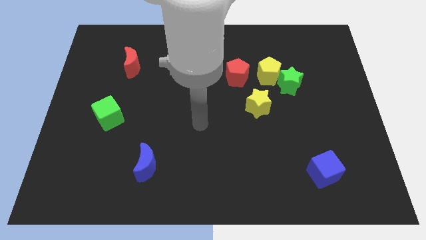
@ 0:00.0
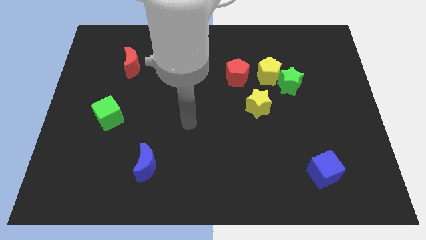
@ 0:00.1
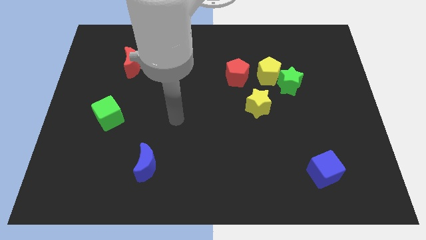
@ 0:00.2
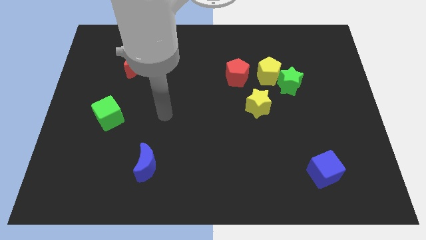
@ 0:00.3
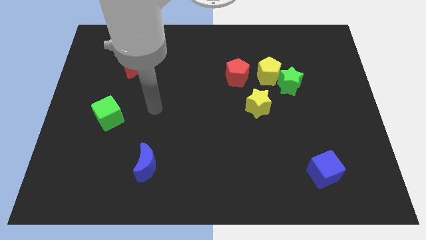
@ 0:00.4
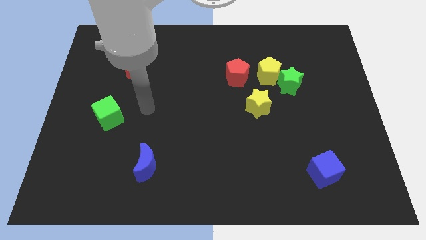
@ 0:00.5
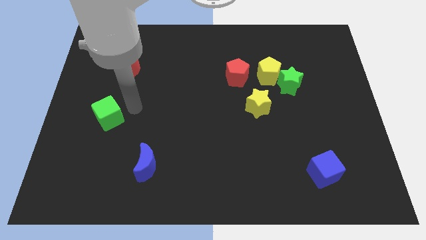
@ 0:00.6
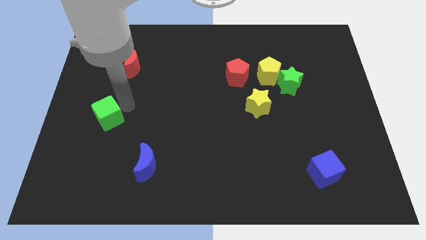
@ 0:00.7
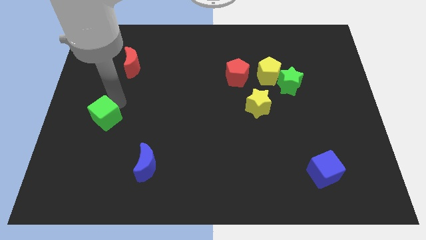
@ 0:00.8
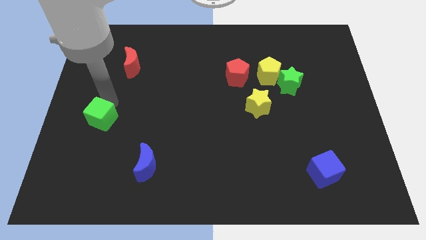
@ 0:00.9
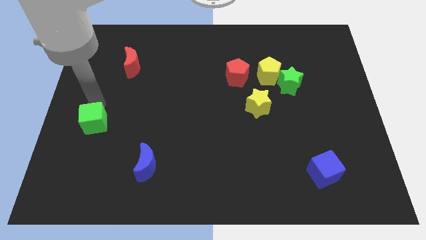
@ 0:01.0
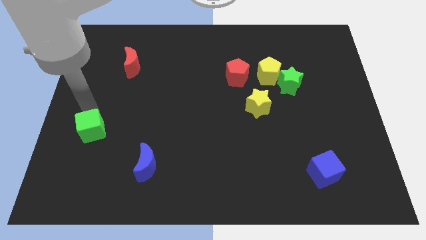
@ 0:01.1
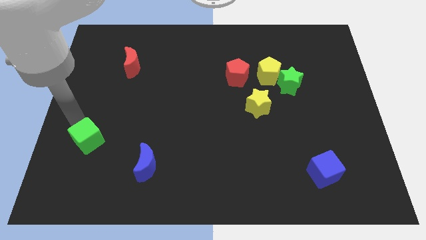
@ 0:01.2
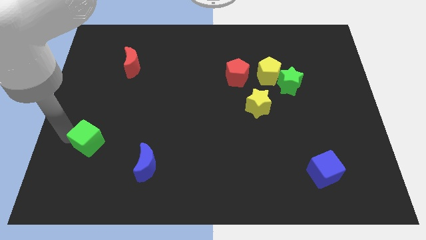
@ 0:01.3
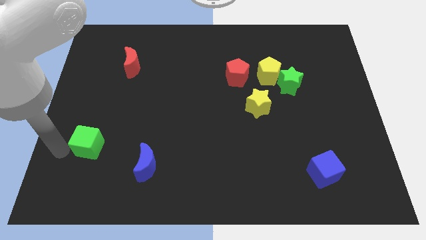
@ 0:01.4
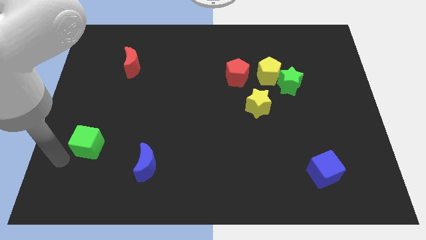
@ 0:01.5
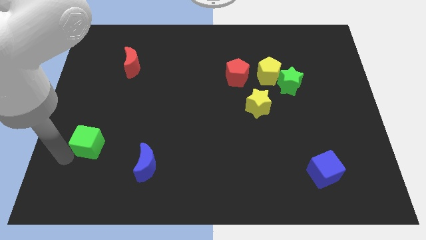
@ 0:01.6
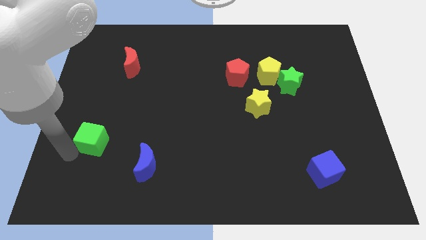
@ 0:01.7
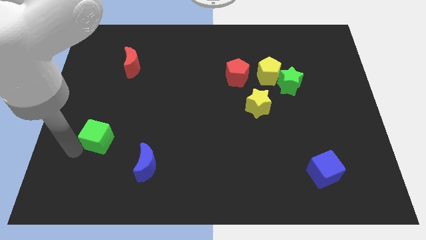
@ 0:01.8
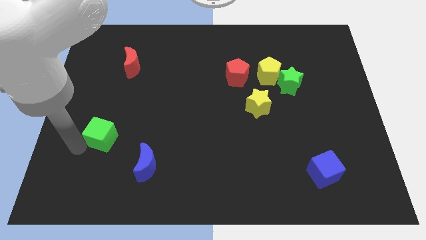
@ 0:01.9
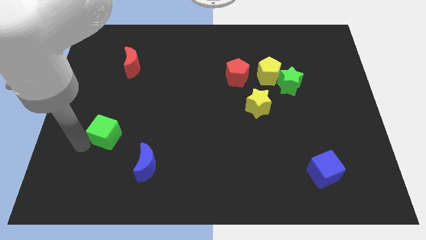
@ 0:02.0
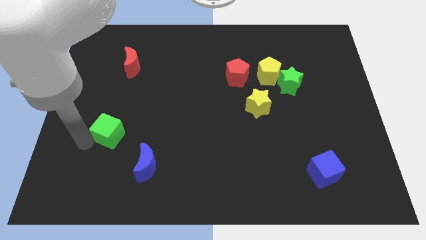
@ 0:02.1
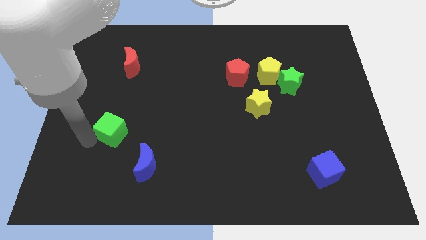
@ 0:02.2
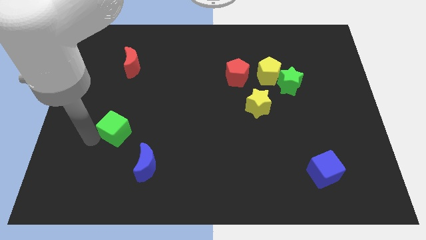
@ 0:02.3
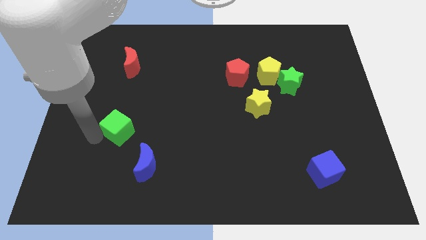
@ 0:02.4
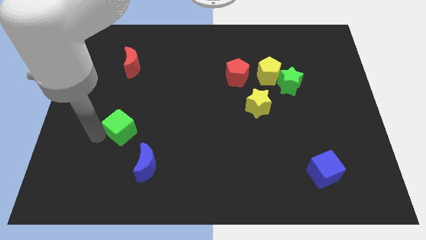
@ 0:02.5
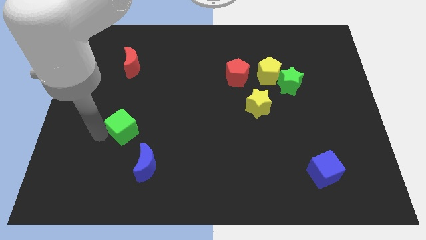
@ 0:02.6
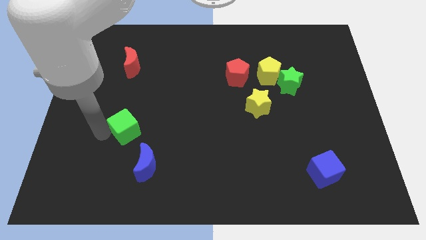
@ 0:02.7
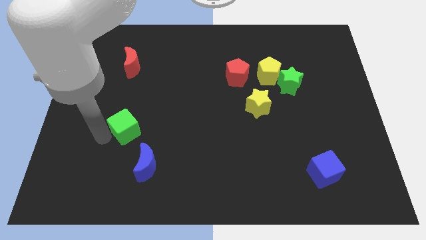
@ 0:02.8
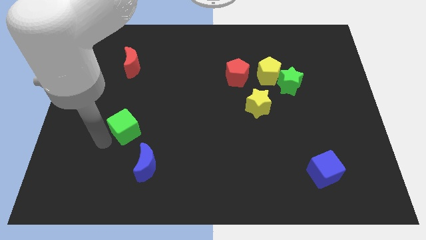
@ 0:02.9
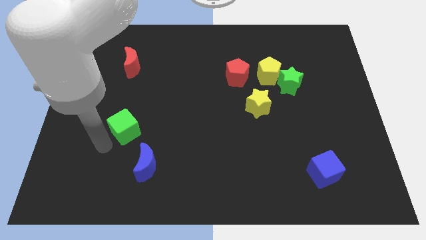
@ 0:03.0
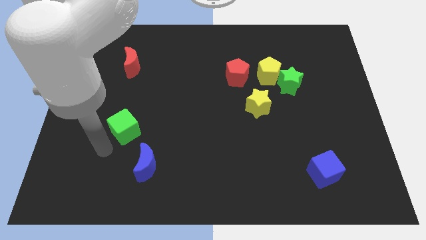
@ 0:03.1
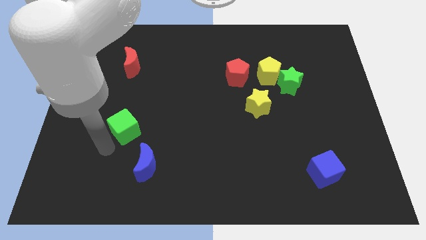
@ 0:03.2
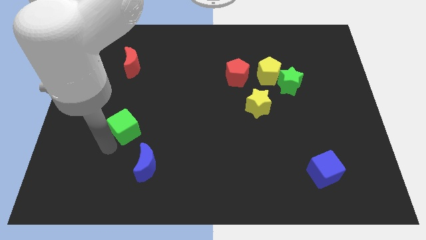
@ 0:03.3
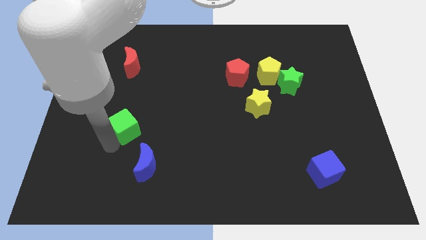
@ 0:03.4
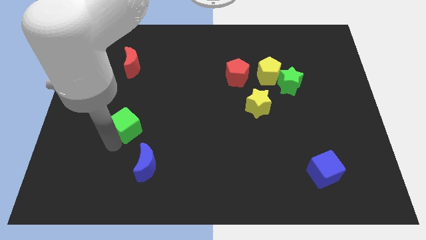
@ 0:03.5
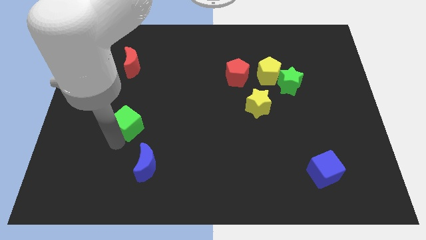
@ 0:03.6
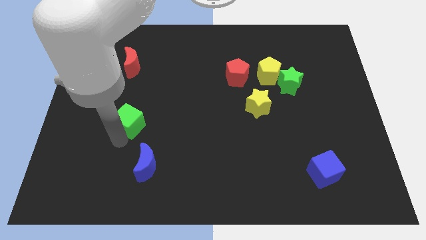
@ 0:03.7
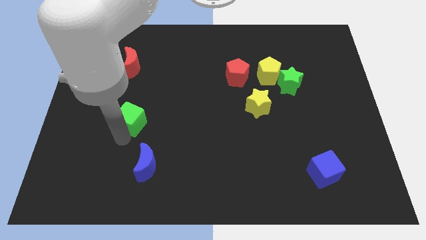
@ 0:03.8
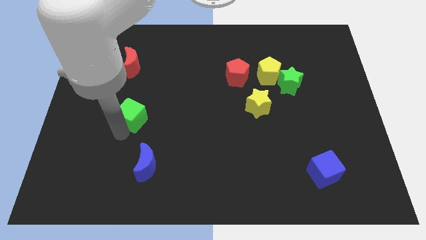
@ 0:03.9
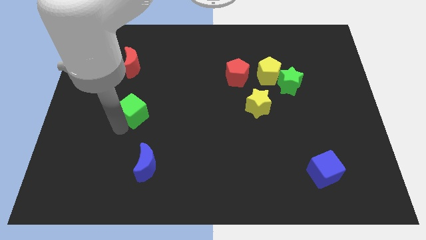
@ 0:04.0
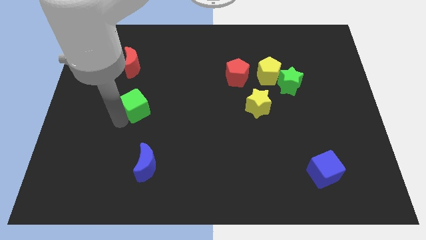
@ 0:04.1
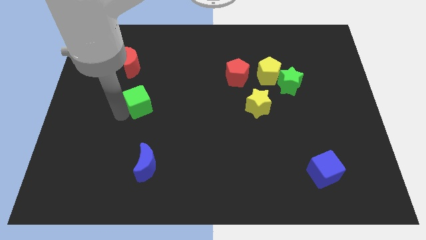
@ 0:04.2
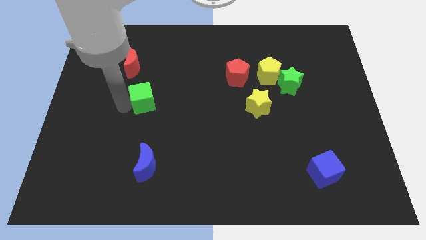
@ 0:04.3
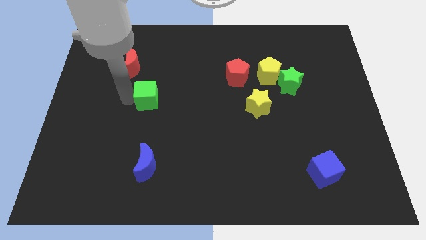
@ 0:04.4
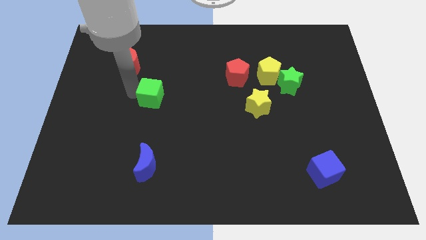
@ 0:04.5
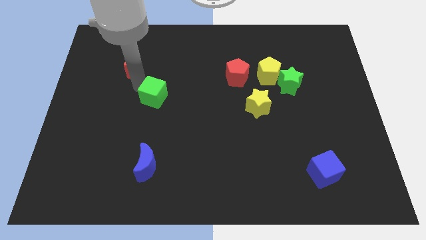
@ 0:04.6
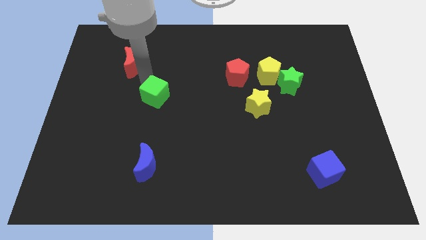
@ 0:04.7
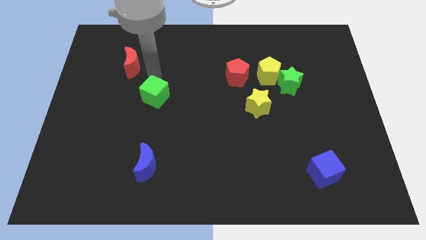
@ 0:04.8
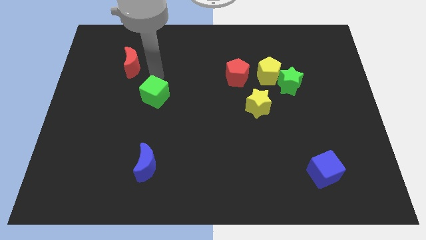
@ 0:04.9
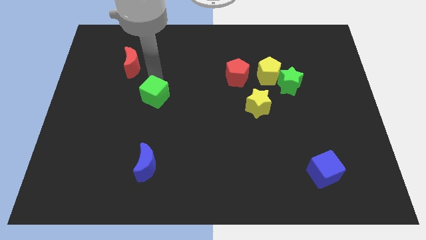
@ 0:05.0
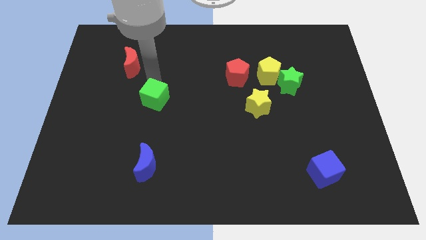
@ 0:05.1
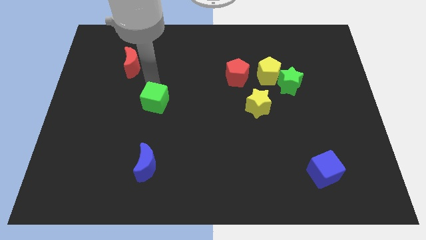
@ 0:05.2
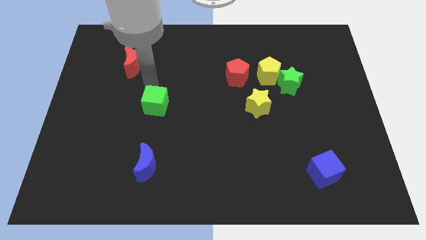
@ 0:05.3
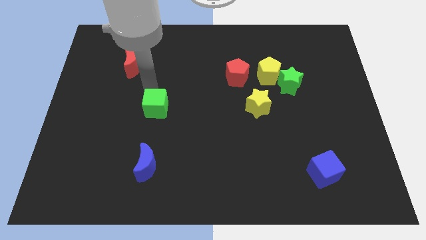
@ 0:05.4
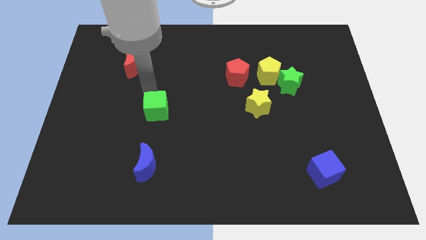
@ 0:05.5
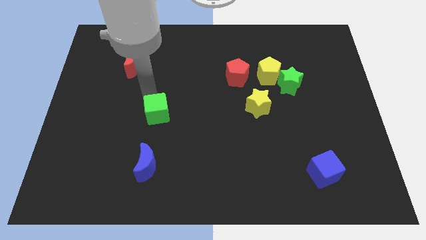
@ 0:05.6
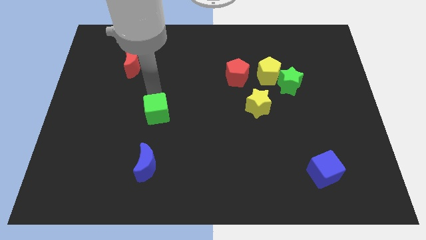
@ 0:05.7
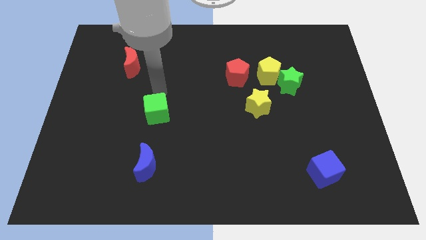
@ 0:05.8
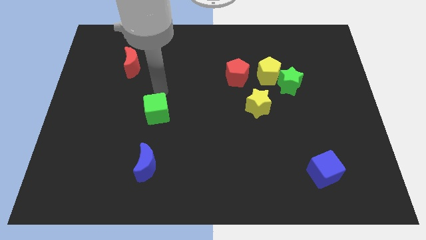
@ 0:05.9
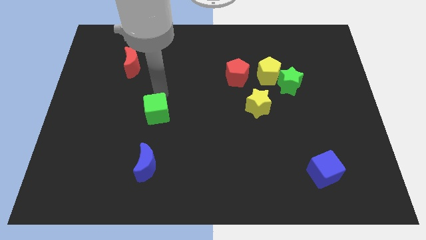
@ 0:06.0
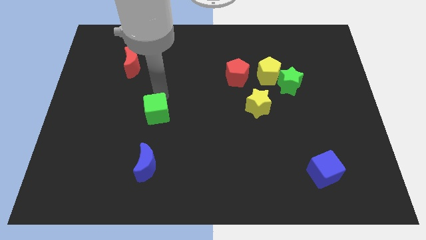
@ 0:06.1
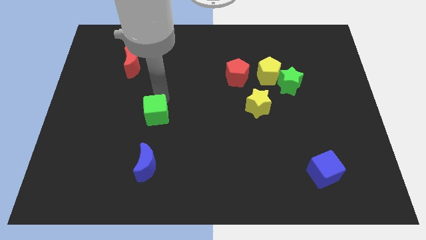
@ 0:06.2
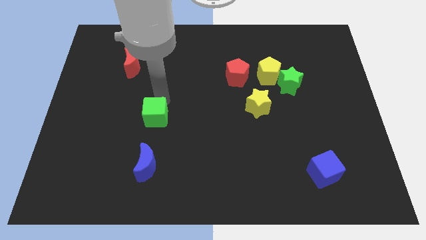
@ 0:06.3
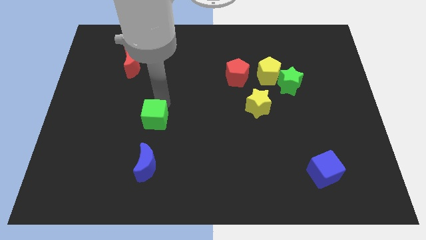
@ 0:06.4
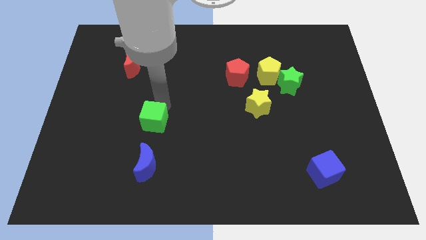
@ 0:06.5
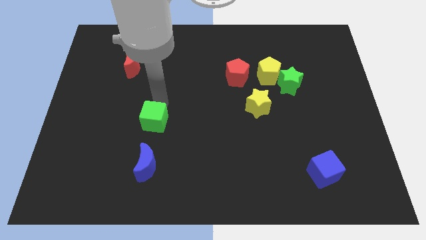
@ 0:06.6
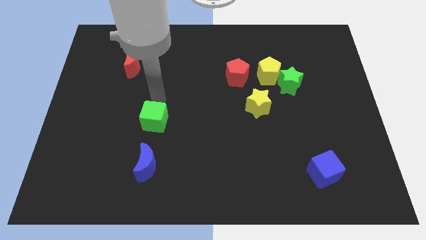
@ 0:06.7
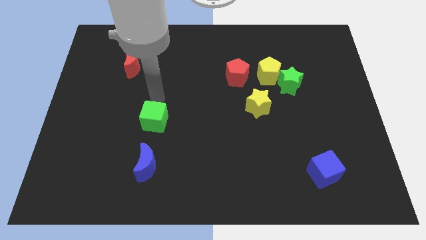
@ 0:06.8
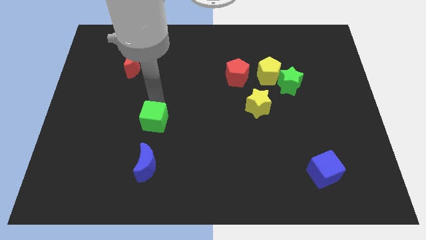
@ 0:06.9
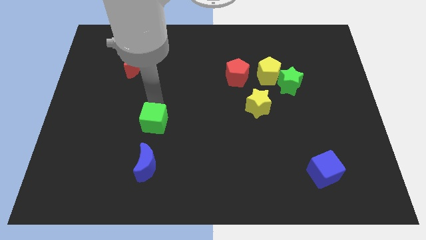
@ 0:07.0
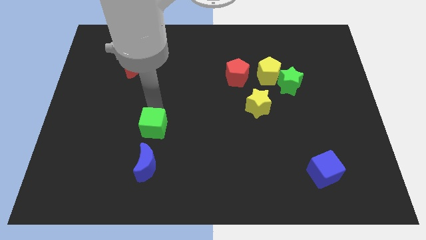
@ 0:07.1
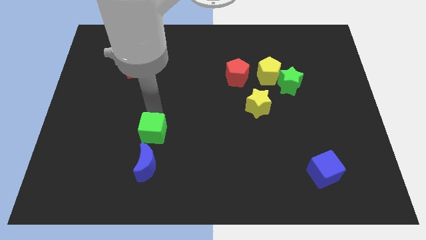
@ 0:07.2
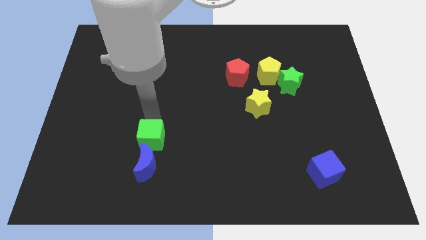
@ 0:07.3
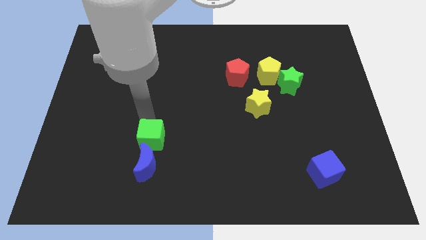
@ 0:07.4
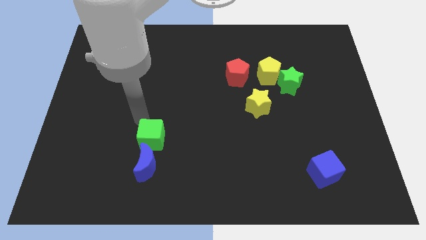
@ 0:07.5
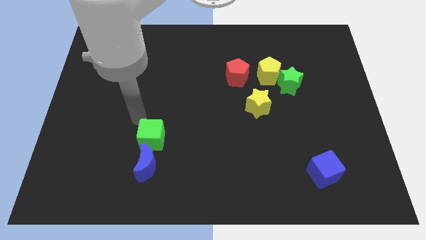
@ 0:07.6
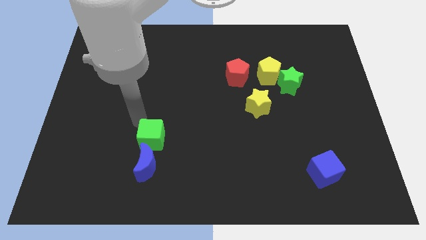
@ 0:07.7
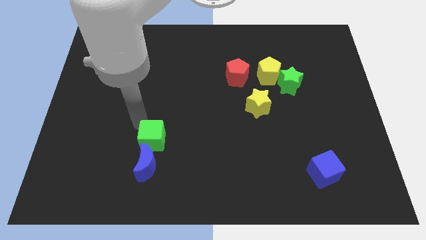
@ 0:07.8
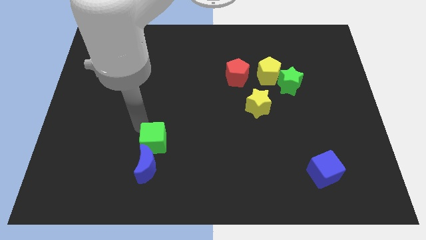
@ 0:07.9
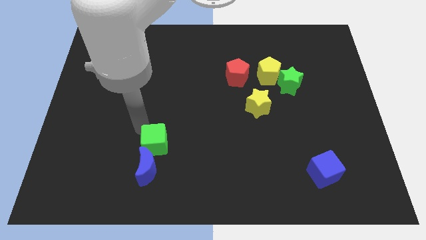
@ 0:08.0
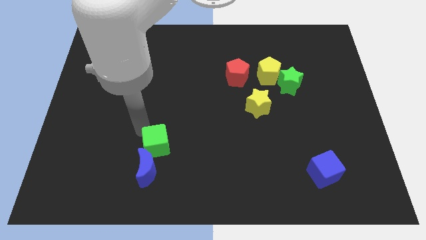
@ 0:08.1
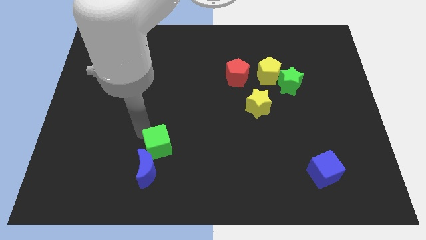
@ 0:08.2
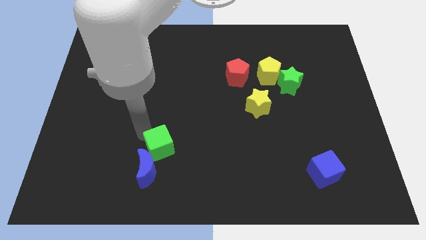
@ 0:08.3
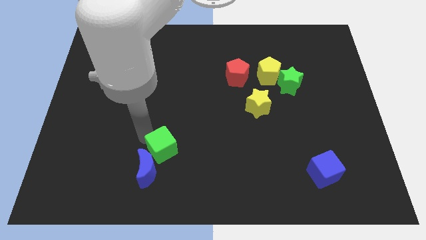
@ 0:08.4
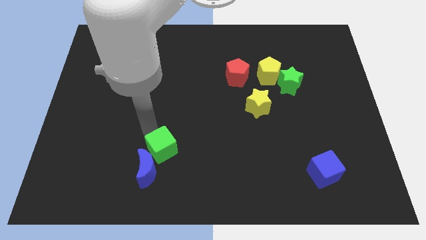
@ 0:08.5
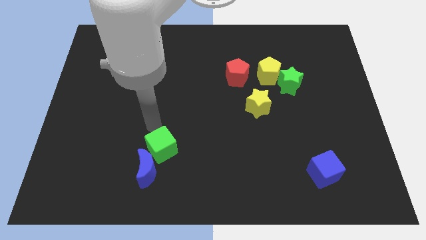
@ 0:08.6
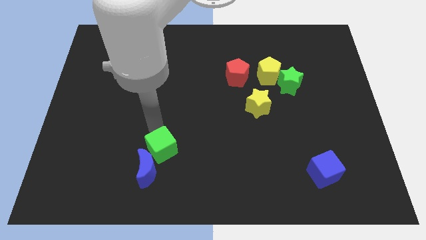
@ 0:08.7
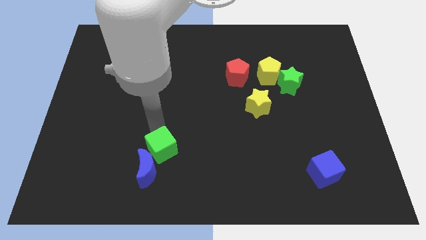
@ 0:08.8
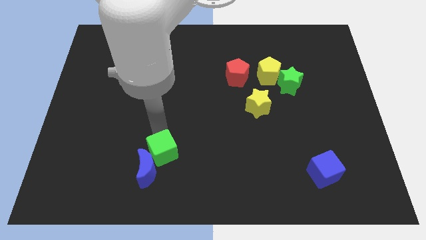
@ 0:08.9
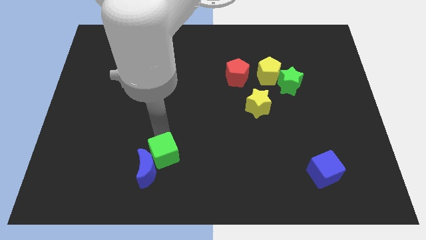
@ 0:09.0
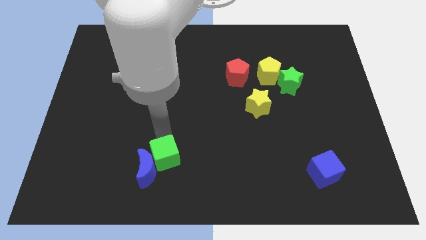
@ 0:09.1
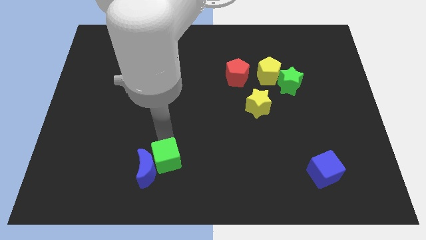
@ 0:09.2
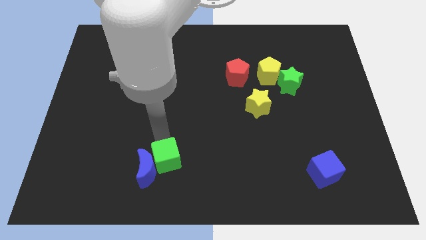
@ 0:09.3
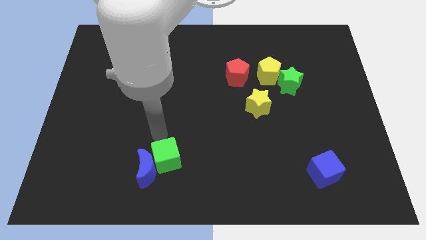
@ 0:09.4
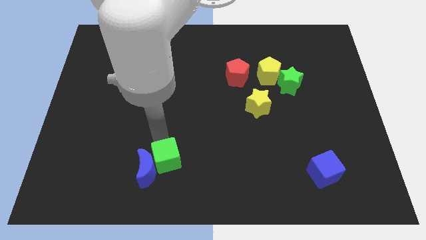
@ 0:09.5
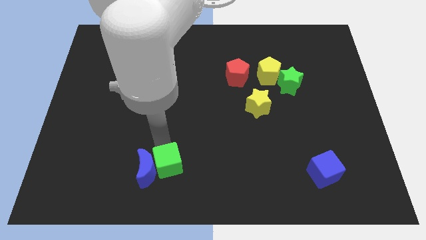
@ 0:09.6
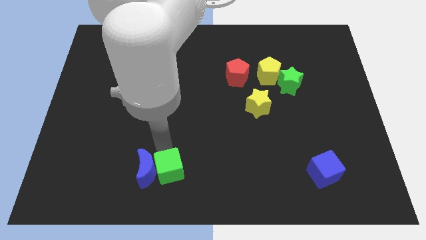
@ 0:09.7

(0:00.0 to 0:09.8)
push the green cube to the bottom
